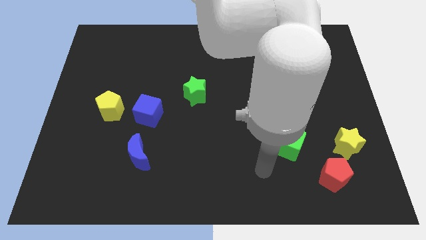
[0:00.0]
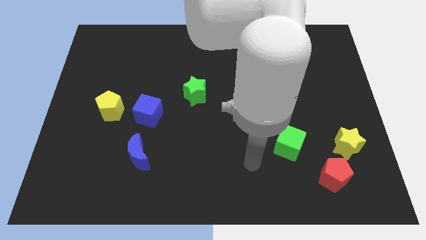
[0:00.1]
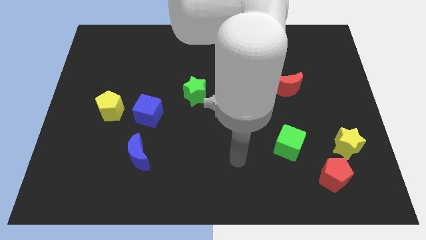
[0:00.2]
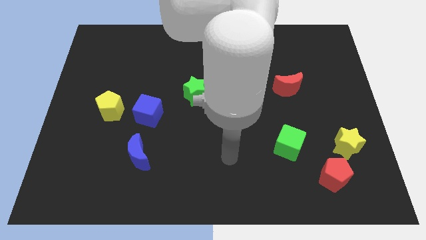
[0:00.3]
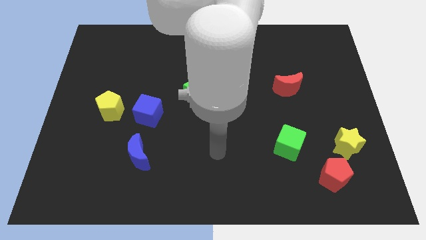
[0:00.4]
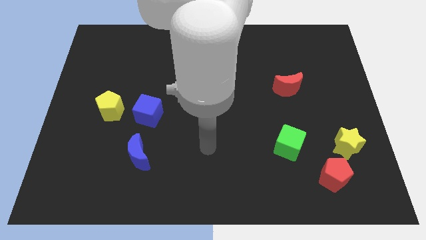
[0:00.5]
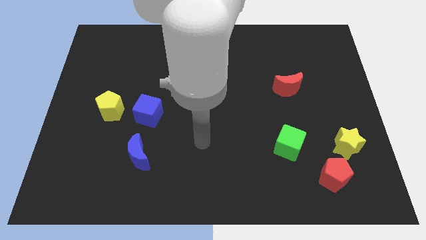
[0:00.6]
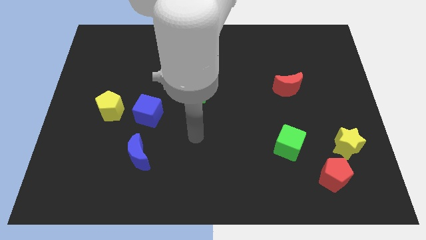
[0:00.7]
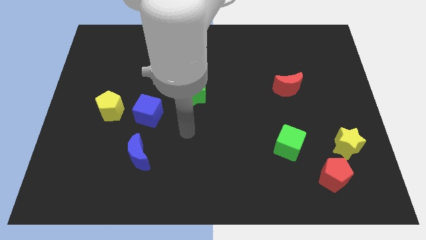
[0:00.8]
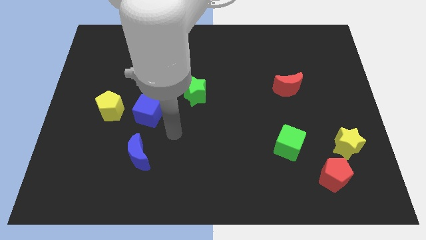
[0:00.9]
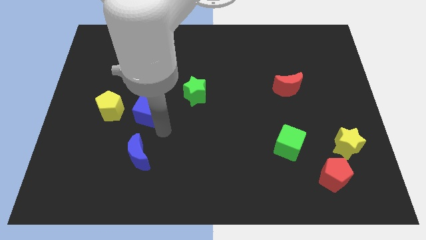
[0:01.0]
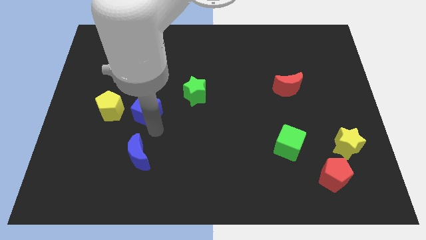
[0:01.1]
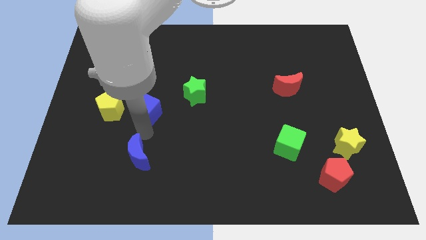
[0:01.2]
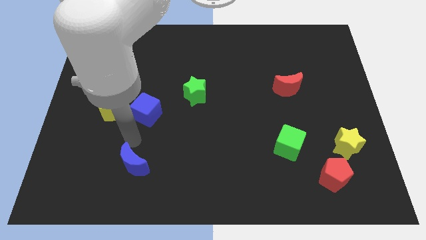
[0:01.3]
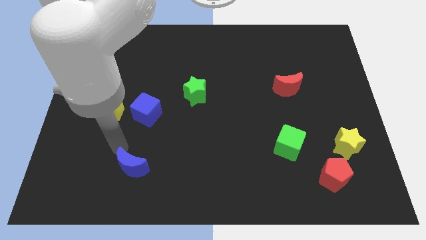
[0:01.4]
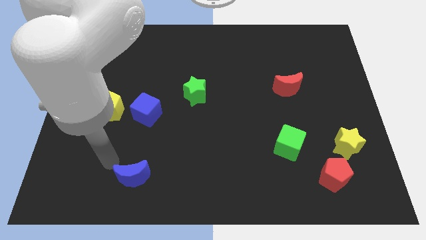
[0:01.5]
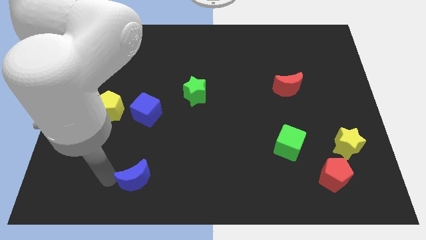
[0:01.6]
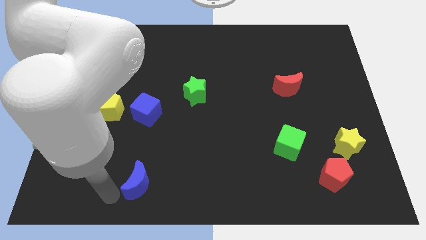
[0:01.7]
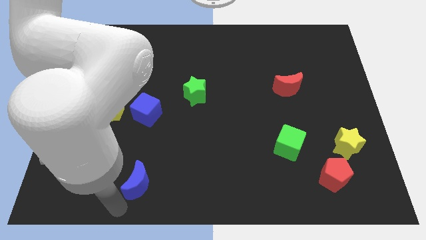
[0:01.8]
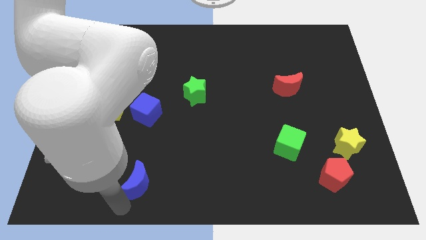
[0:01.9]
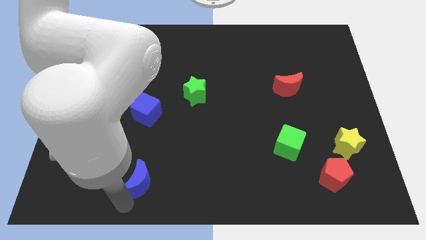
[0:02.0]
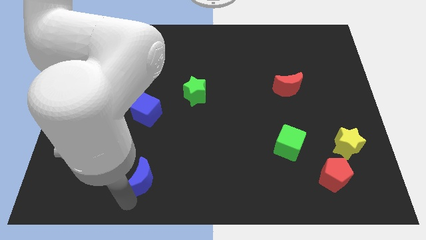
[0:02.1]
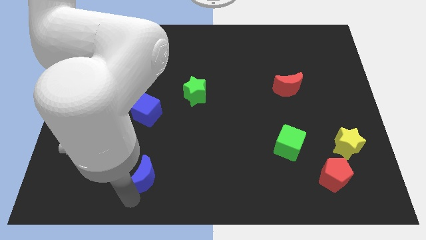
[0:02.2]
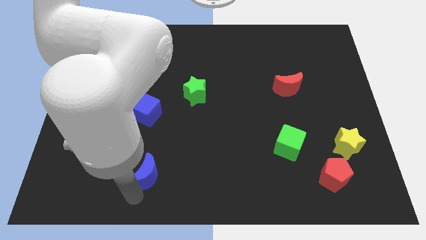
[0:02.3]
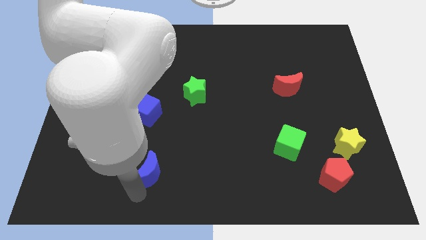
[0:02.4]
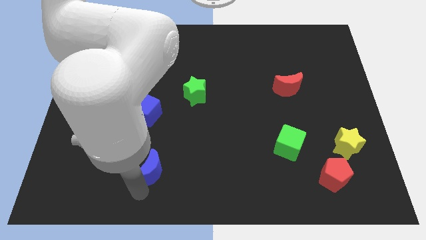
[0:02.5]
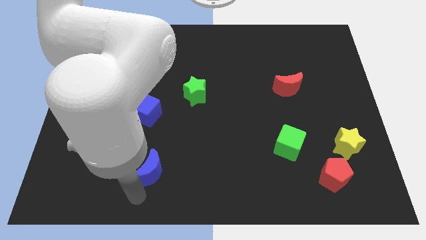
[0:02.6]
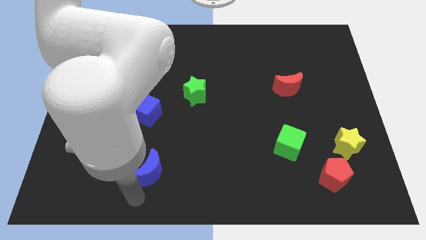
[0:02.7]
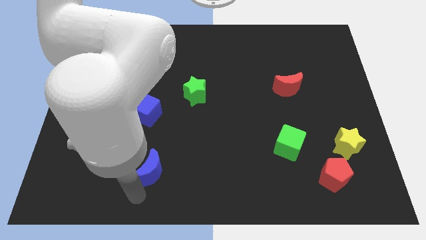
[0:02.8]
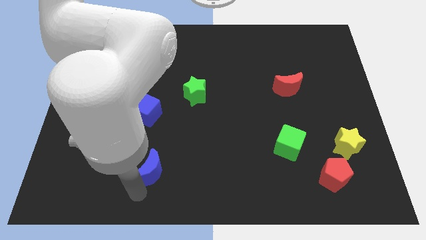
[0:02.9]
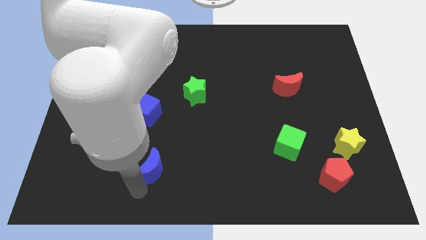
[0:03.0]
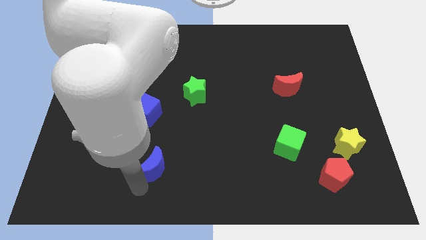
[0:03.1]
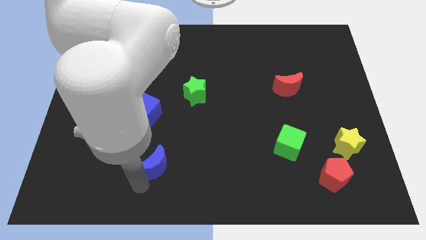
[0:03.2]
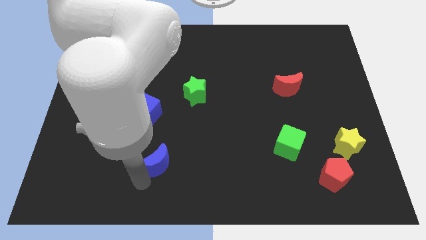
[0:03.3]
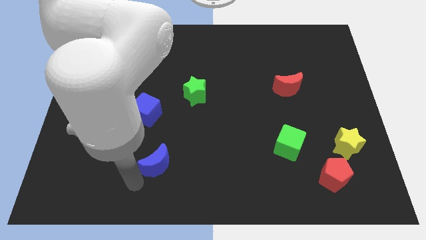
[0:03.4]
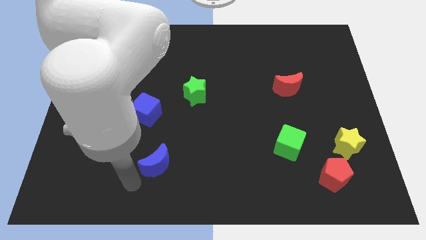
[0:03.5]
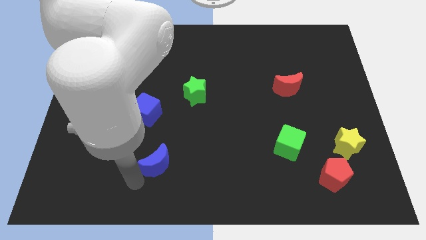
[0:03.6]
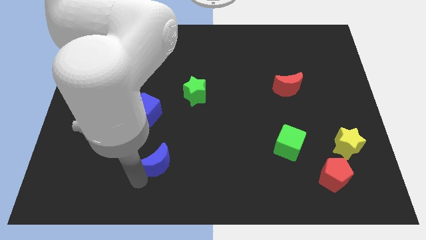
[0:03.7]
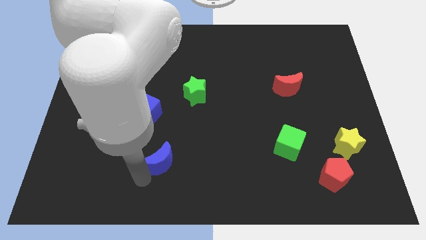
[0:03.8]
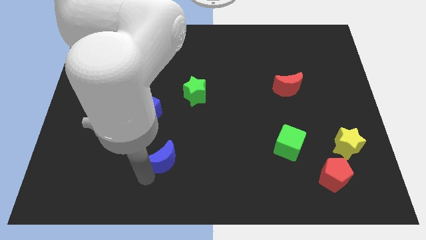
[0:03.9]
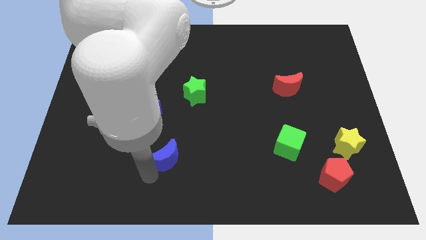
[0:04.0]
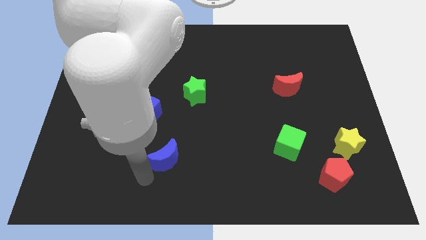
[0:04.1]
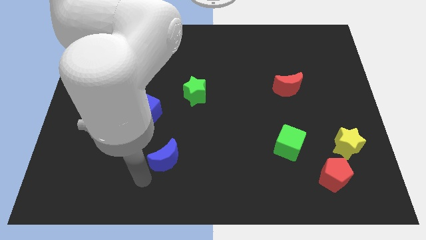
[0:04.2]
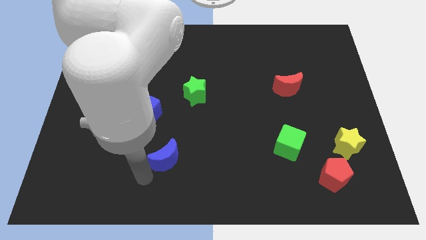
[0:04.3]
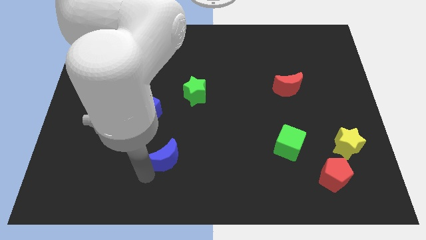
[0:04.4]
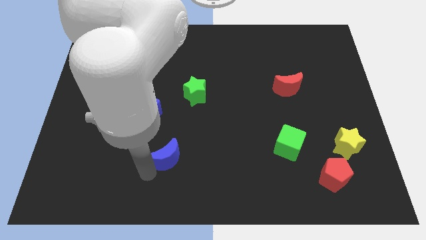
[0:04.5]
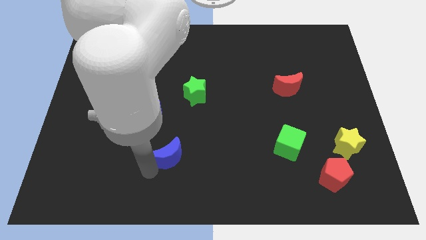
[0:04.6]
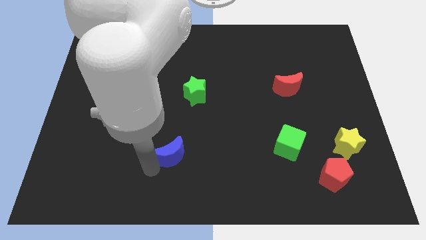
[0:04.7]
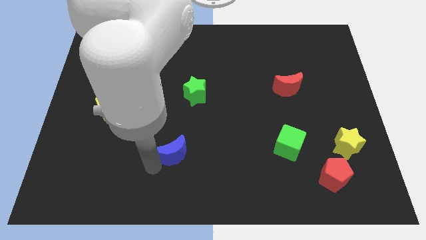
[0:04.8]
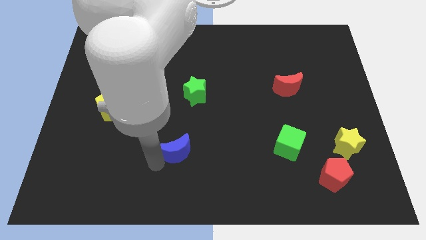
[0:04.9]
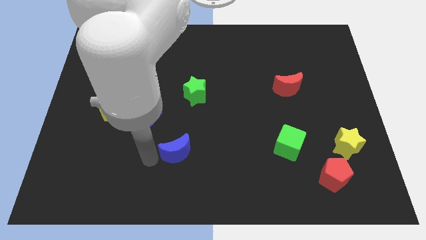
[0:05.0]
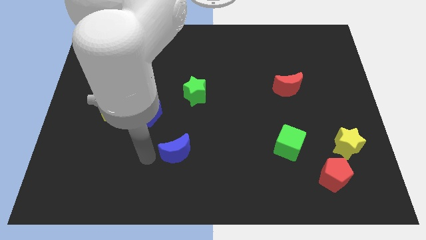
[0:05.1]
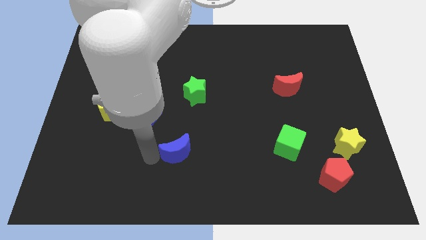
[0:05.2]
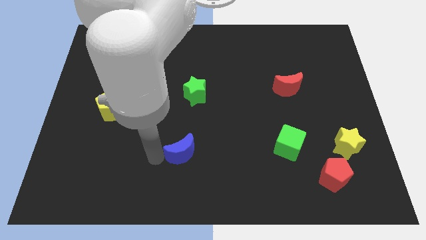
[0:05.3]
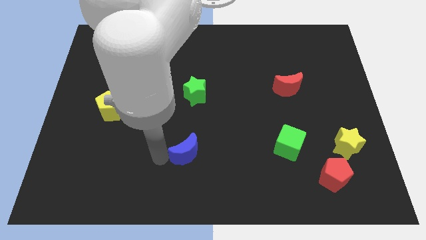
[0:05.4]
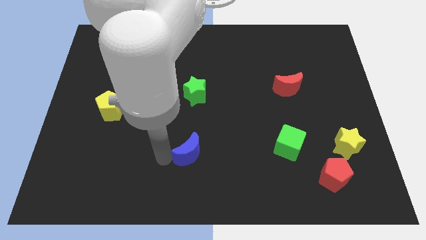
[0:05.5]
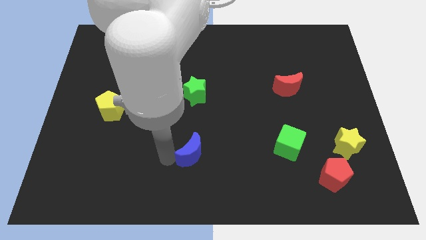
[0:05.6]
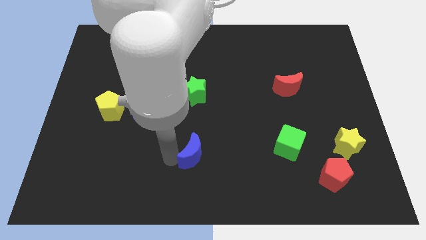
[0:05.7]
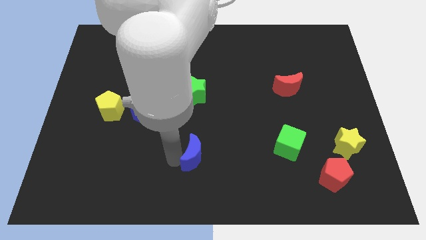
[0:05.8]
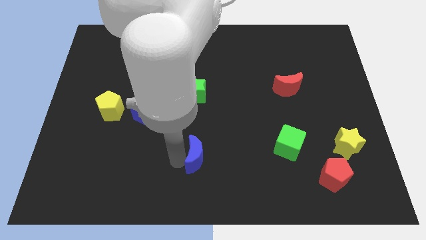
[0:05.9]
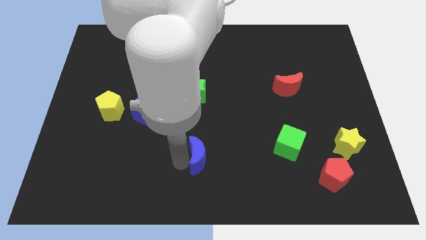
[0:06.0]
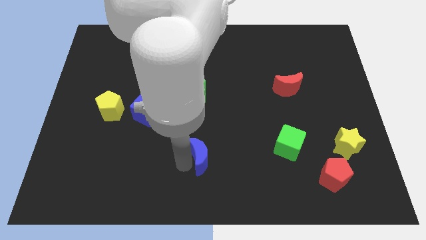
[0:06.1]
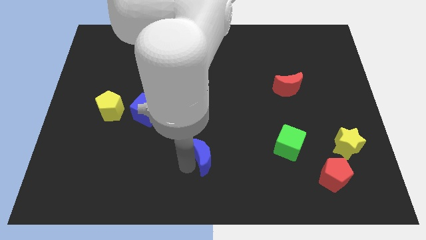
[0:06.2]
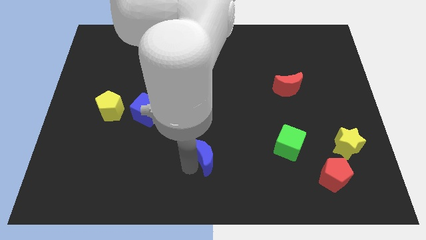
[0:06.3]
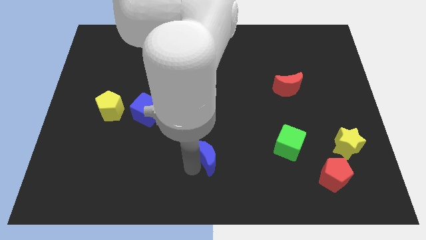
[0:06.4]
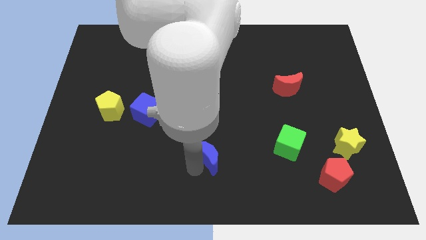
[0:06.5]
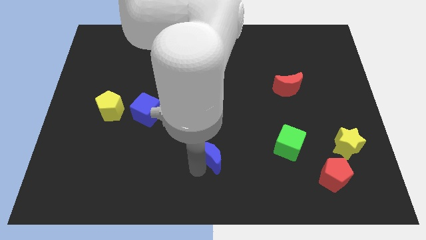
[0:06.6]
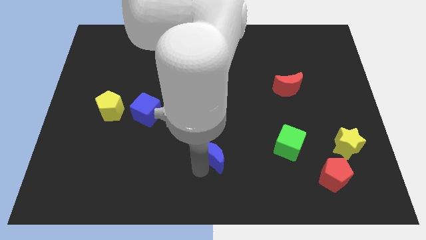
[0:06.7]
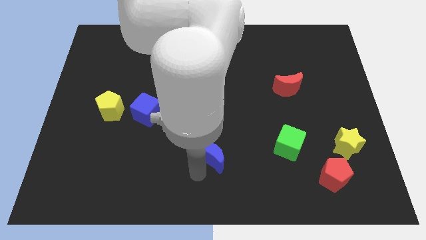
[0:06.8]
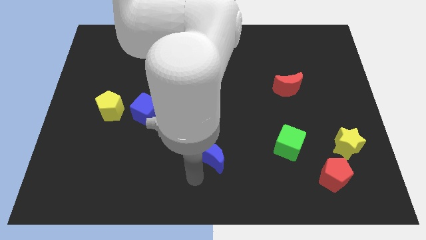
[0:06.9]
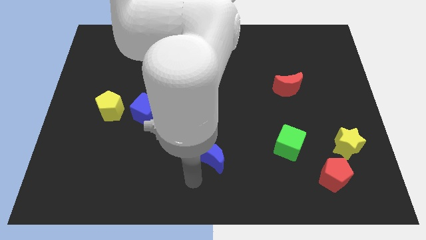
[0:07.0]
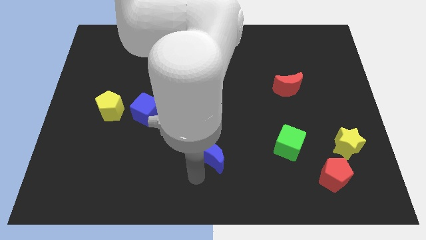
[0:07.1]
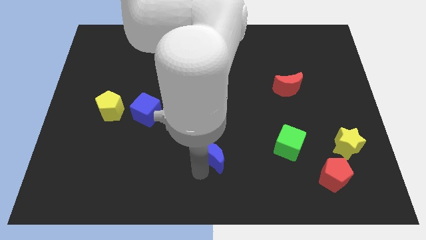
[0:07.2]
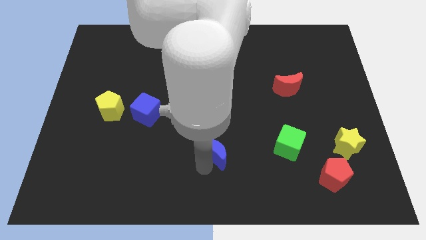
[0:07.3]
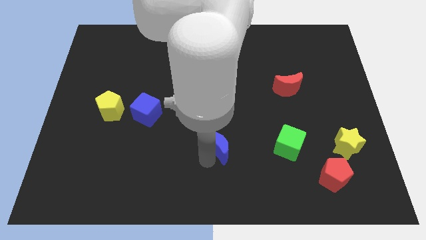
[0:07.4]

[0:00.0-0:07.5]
slide the blue moon to the left side of the green cube
